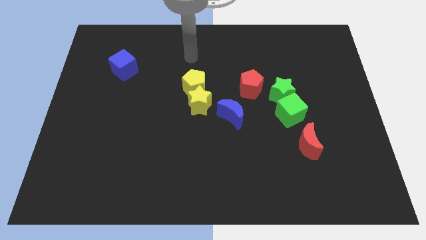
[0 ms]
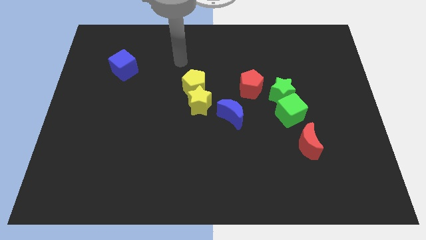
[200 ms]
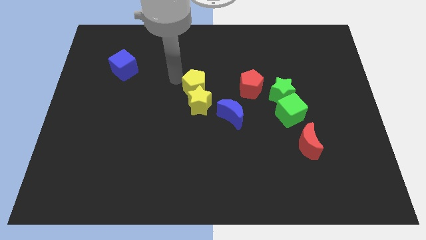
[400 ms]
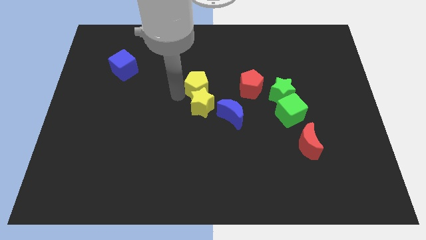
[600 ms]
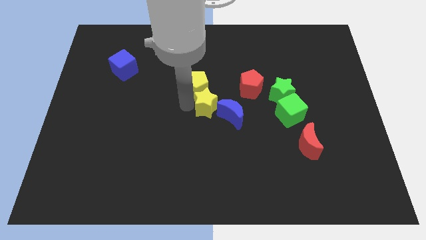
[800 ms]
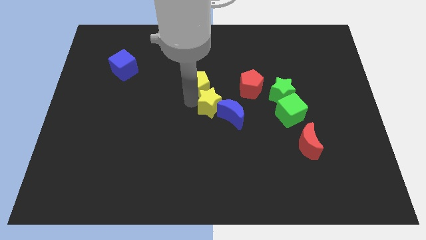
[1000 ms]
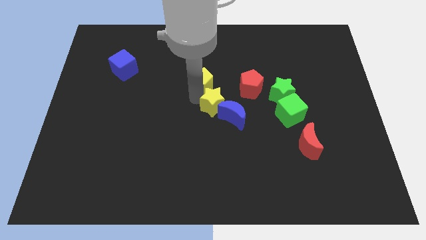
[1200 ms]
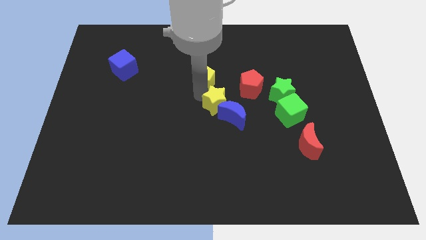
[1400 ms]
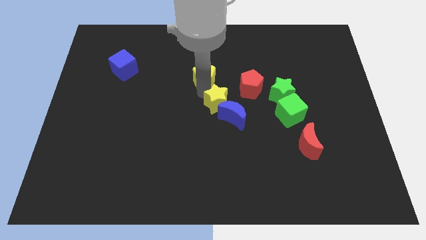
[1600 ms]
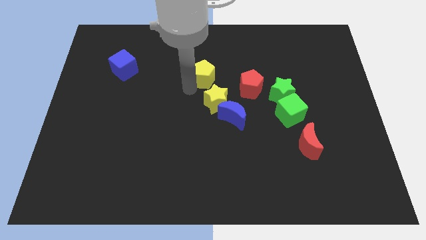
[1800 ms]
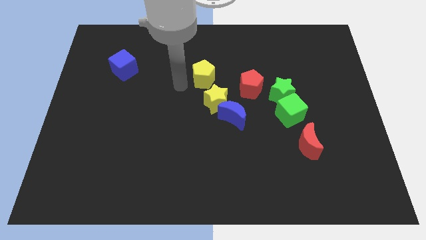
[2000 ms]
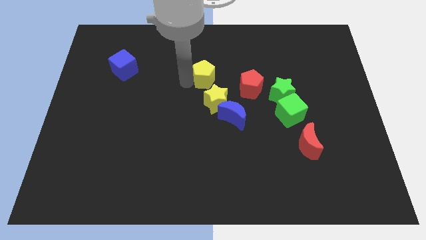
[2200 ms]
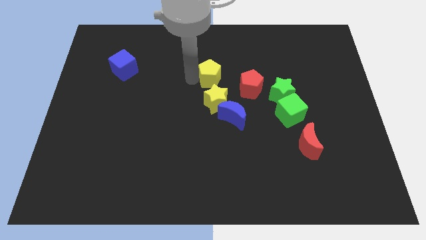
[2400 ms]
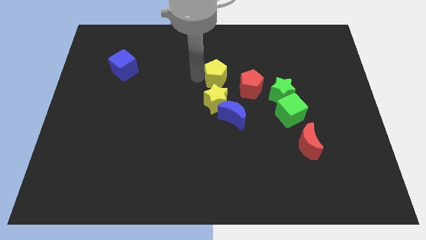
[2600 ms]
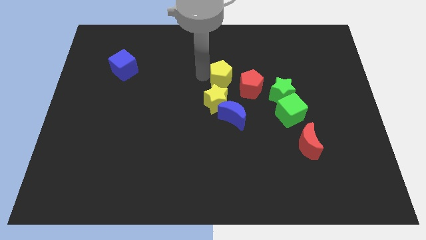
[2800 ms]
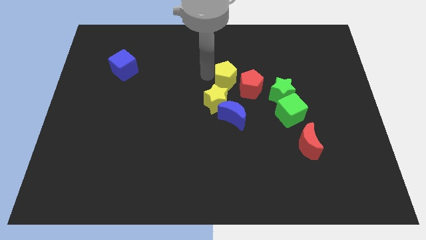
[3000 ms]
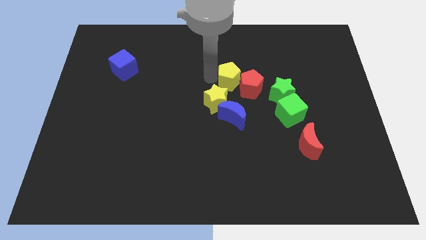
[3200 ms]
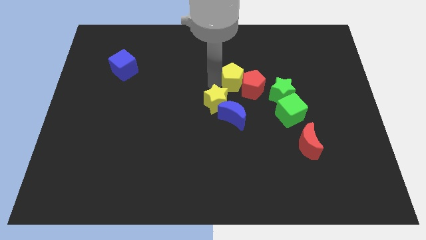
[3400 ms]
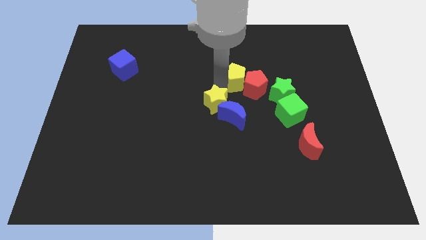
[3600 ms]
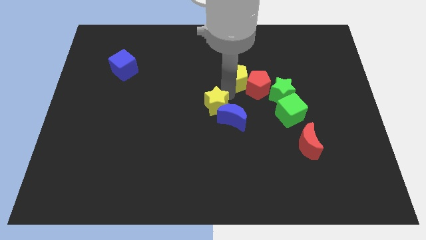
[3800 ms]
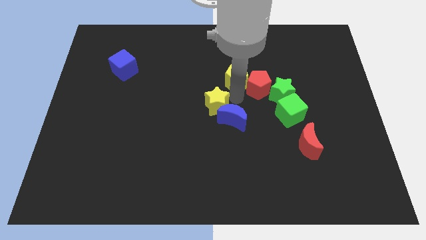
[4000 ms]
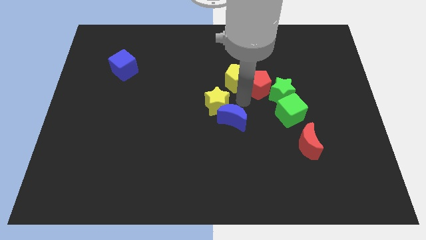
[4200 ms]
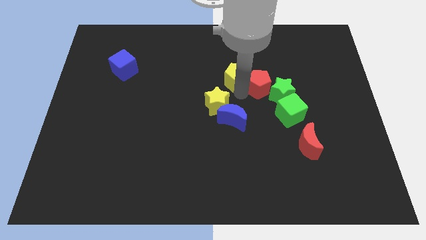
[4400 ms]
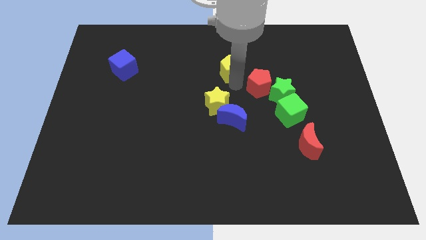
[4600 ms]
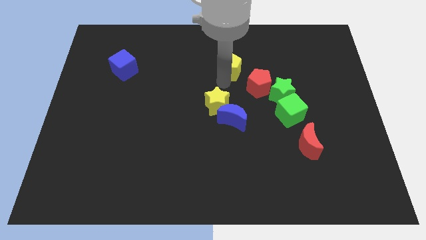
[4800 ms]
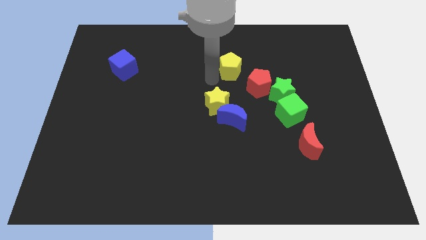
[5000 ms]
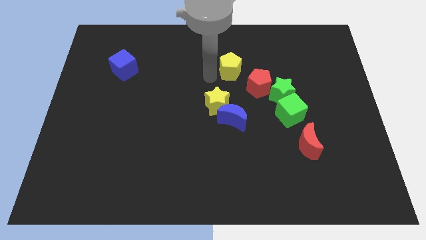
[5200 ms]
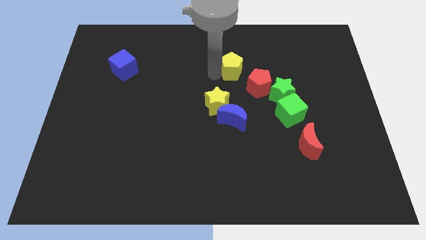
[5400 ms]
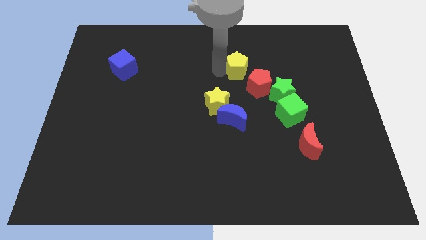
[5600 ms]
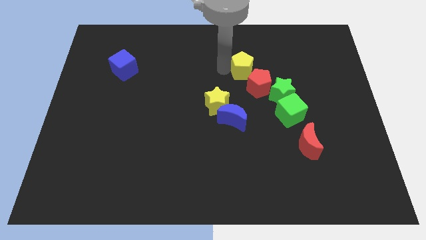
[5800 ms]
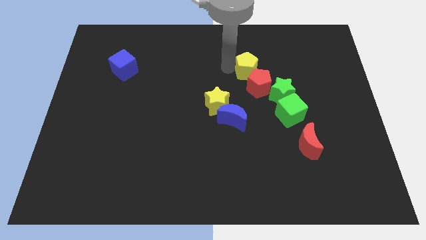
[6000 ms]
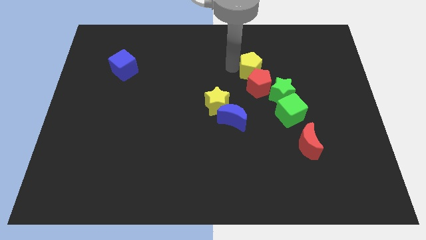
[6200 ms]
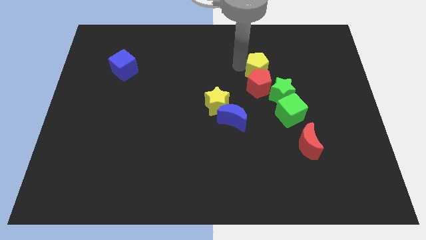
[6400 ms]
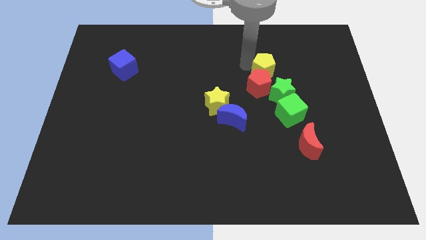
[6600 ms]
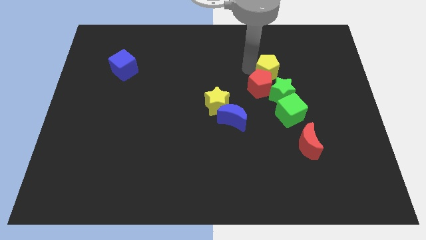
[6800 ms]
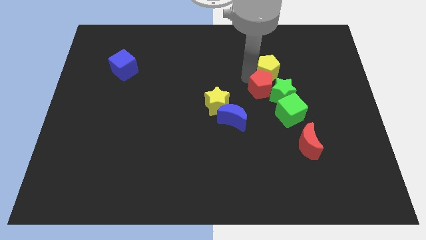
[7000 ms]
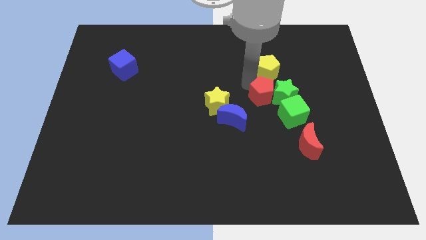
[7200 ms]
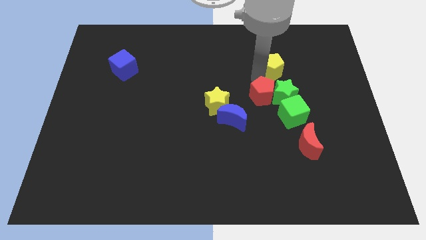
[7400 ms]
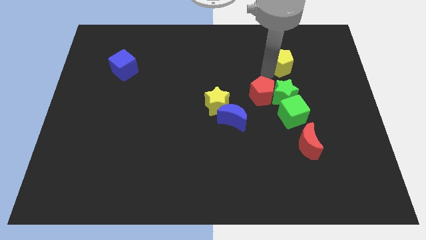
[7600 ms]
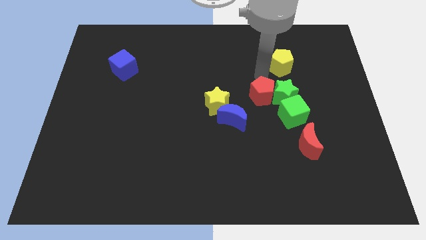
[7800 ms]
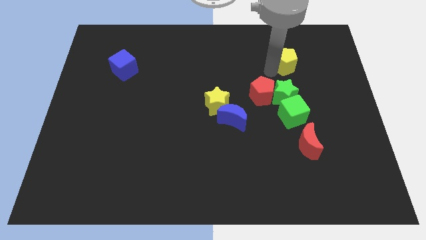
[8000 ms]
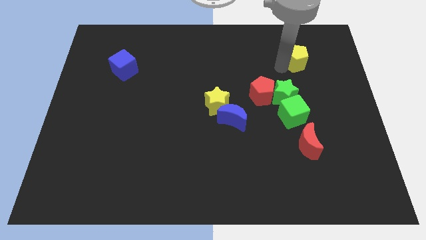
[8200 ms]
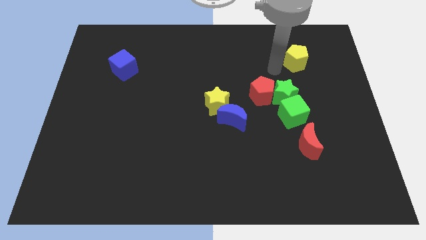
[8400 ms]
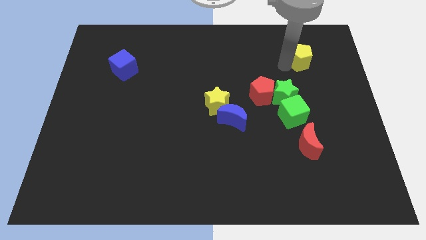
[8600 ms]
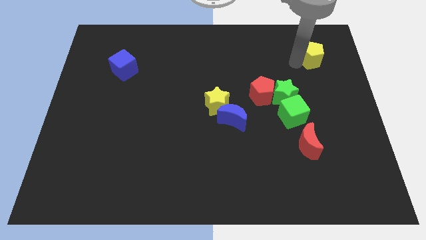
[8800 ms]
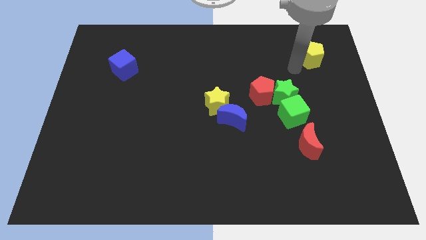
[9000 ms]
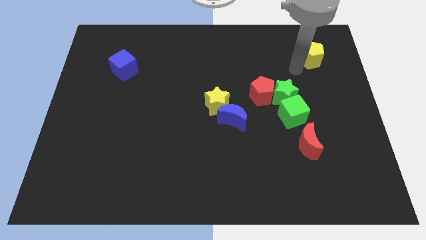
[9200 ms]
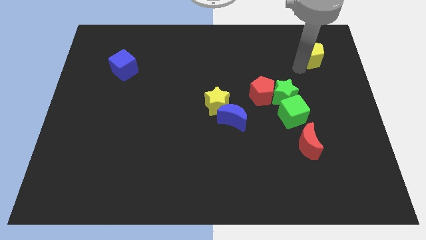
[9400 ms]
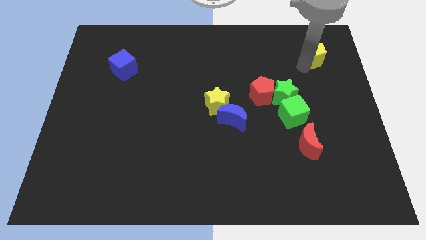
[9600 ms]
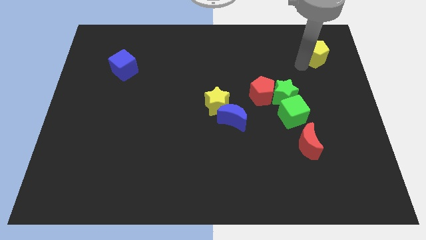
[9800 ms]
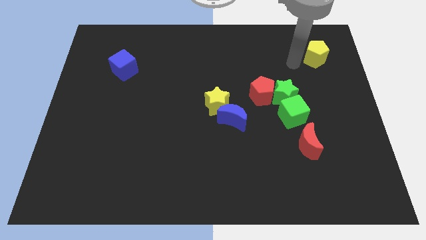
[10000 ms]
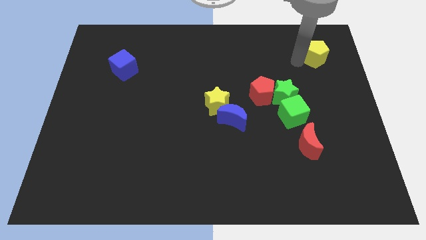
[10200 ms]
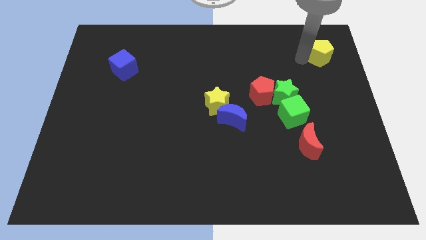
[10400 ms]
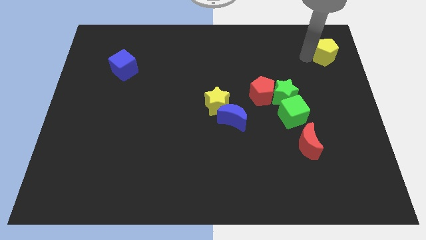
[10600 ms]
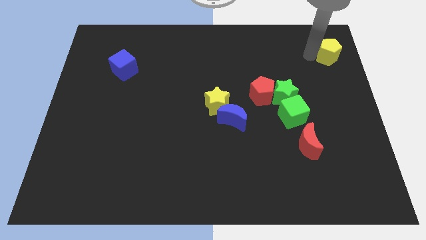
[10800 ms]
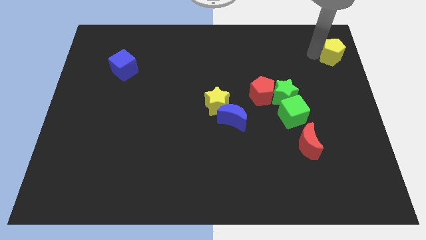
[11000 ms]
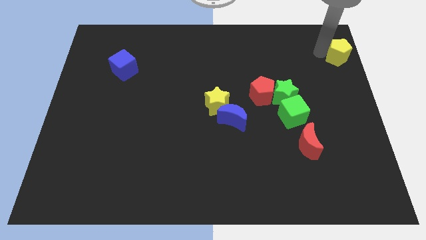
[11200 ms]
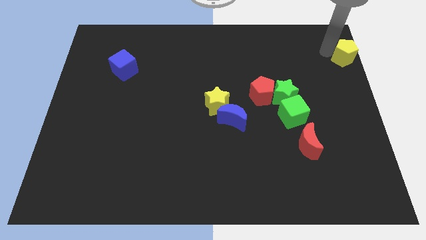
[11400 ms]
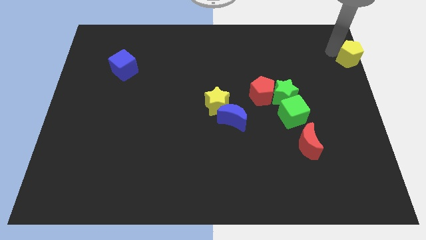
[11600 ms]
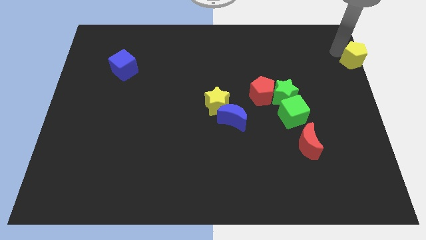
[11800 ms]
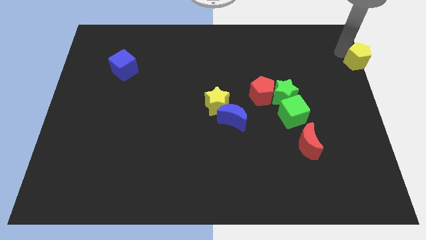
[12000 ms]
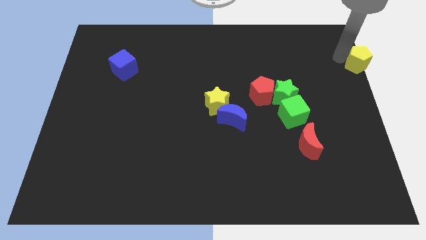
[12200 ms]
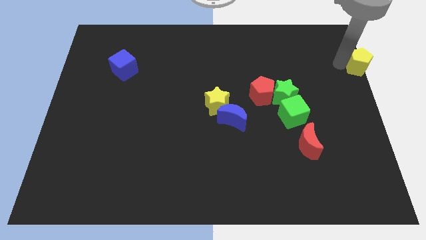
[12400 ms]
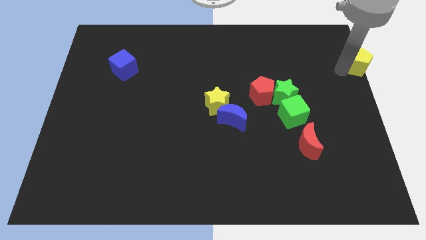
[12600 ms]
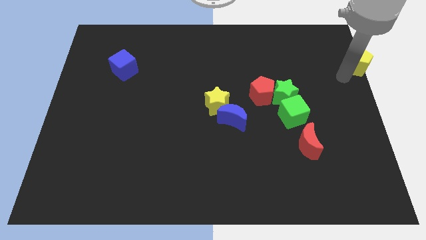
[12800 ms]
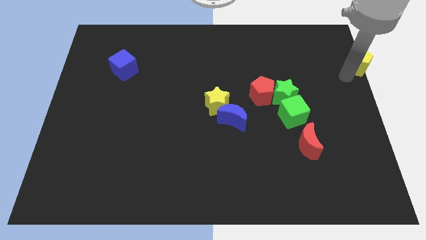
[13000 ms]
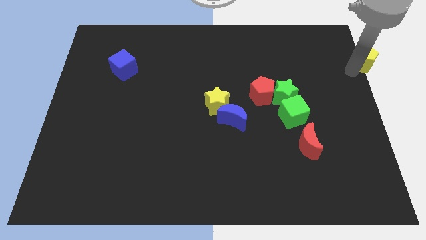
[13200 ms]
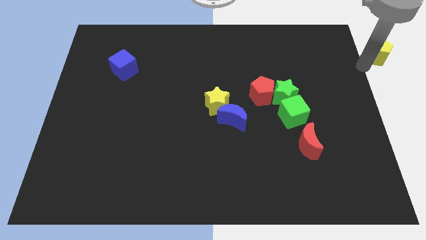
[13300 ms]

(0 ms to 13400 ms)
push the yellow pentagon to the top right
